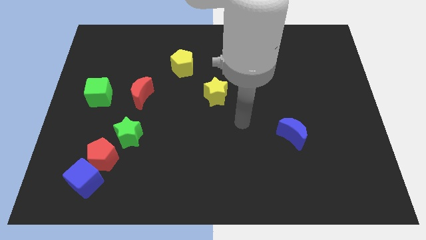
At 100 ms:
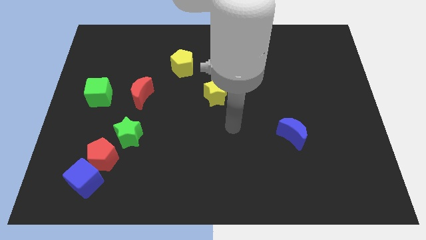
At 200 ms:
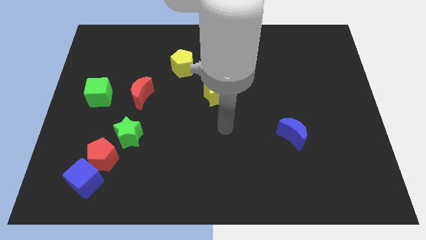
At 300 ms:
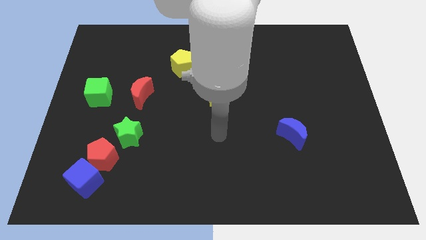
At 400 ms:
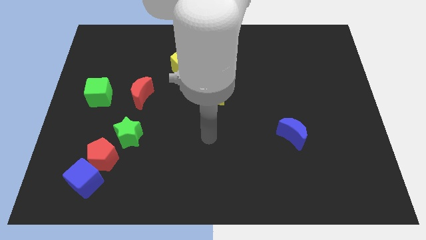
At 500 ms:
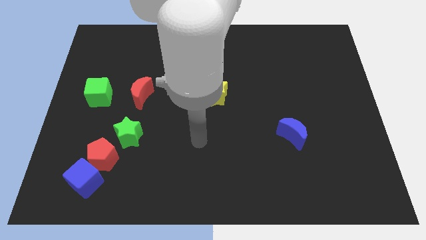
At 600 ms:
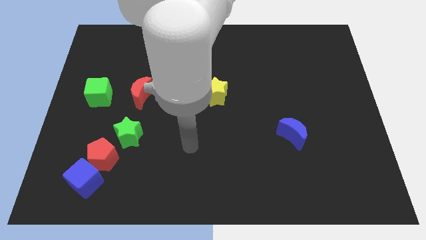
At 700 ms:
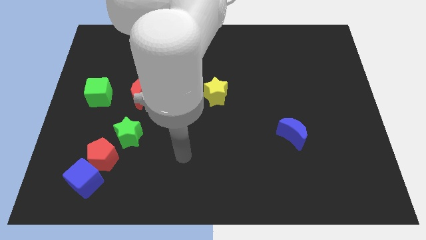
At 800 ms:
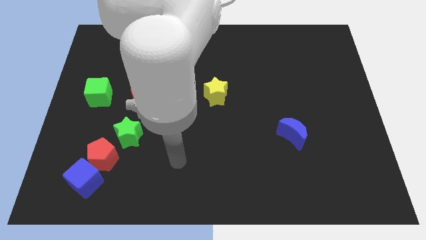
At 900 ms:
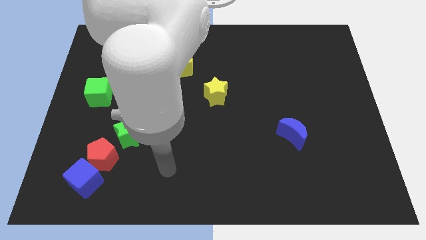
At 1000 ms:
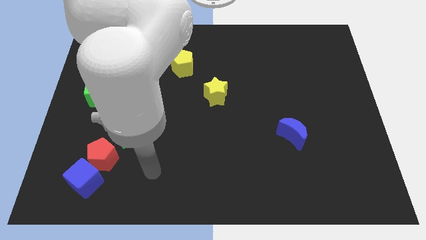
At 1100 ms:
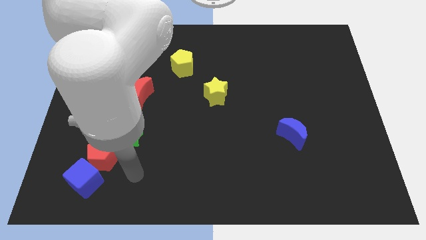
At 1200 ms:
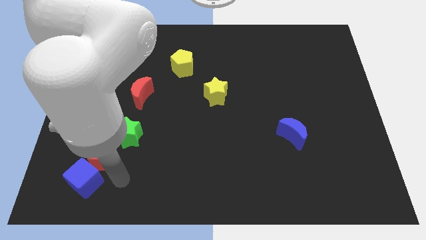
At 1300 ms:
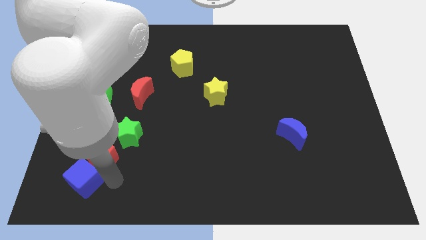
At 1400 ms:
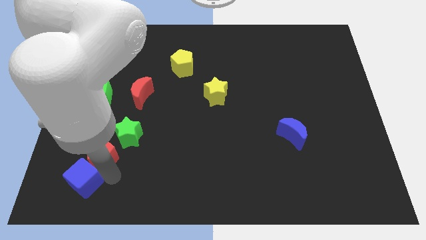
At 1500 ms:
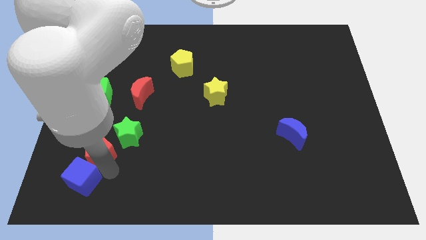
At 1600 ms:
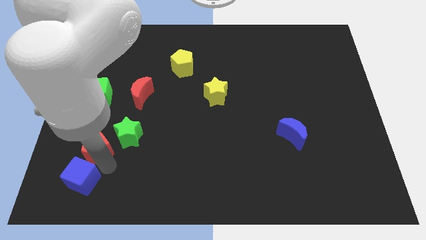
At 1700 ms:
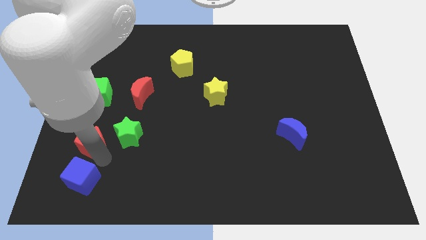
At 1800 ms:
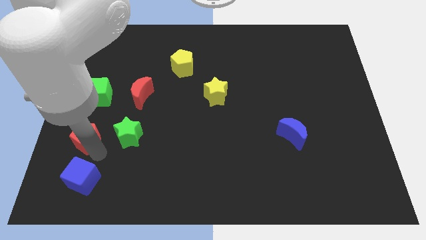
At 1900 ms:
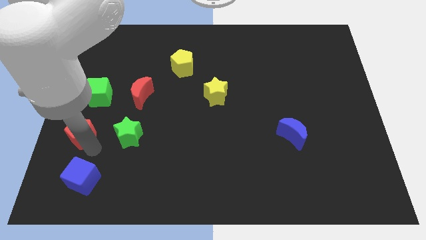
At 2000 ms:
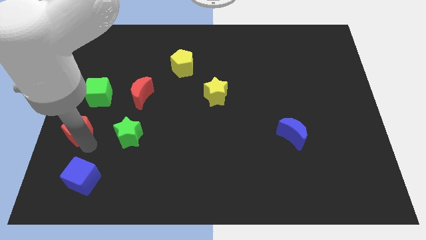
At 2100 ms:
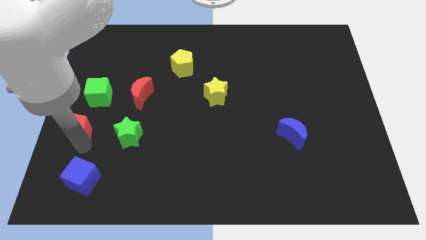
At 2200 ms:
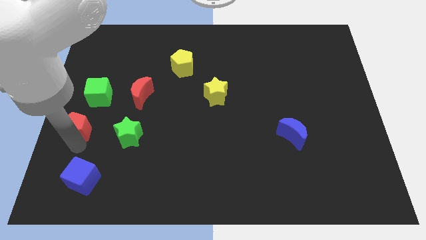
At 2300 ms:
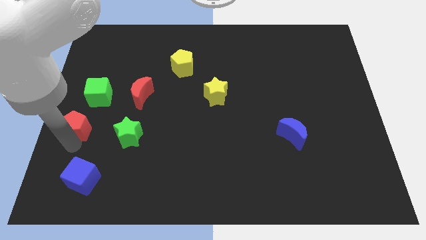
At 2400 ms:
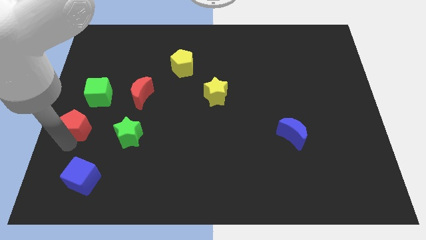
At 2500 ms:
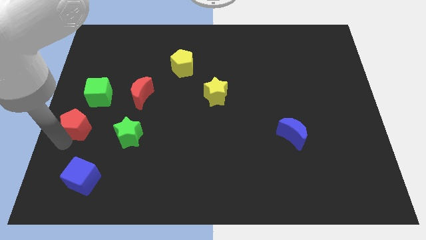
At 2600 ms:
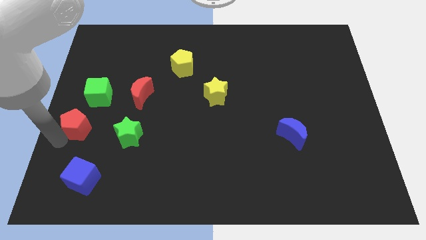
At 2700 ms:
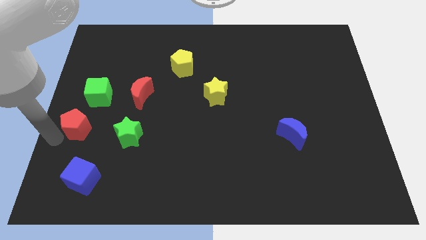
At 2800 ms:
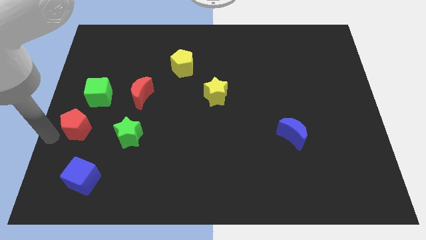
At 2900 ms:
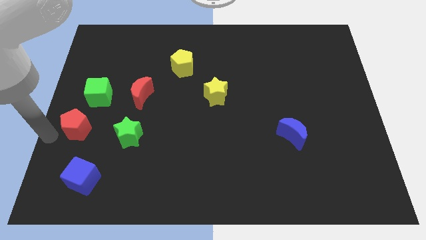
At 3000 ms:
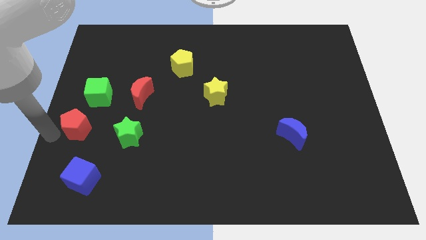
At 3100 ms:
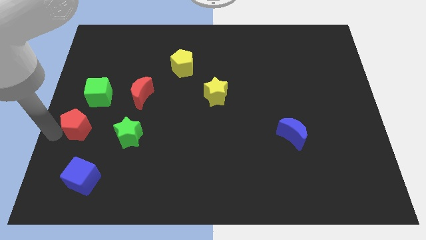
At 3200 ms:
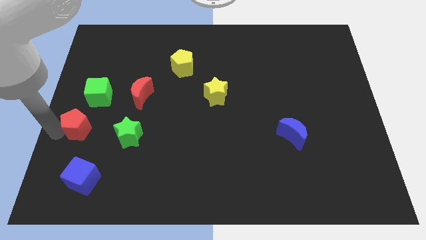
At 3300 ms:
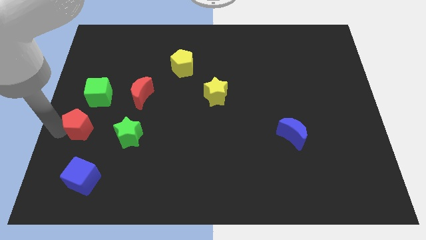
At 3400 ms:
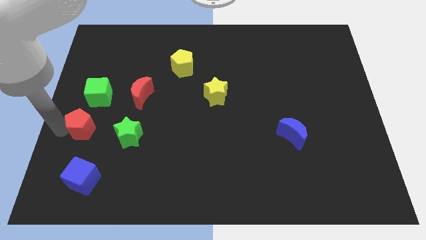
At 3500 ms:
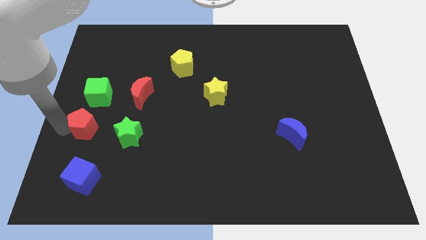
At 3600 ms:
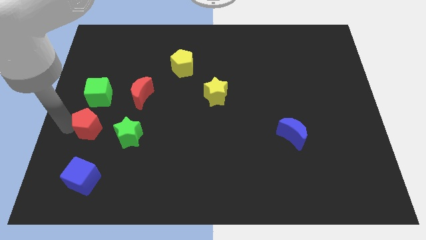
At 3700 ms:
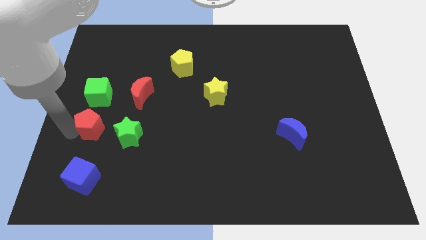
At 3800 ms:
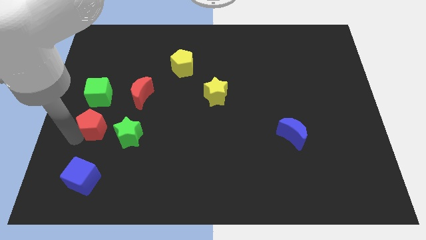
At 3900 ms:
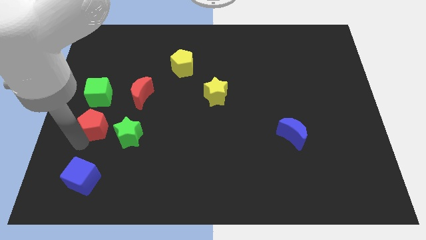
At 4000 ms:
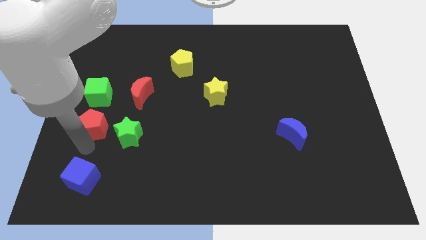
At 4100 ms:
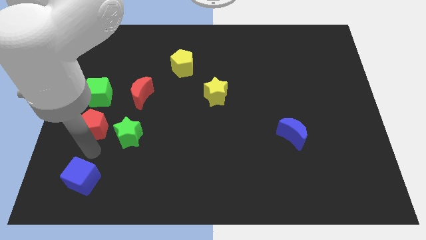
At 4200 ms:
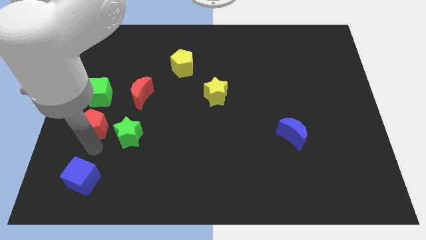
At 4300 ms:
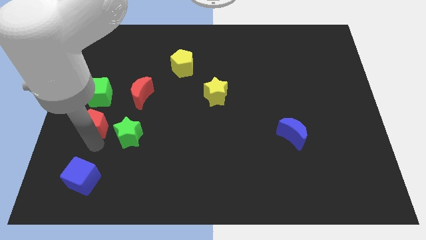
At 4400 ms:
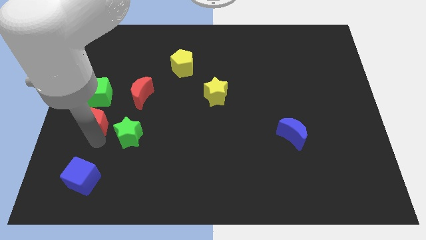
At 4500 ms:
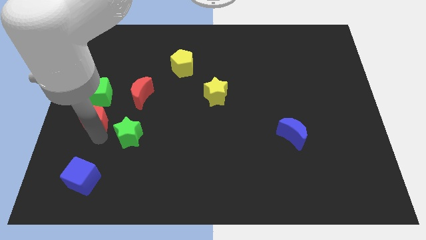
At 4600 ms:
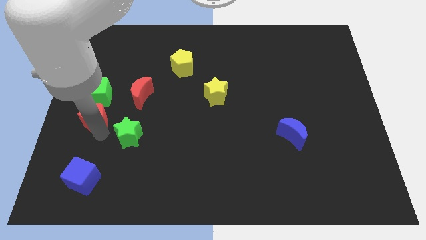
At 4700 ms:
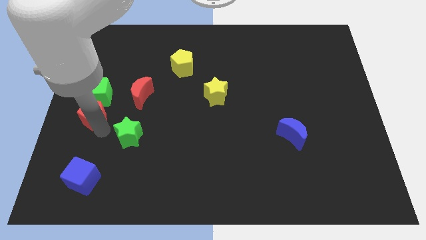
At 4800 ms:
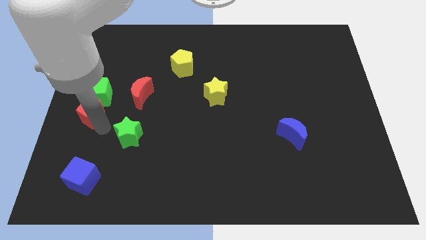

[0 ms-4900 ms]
move the red pentagon next to the green cube

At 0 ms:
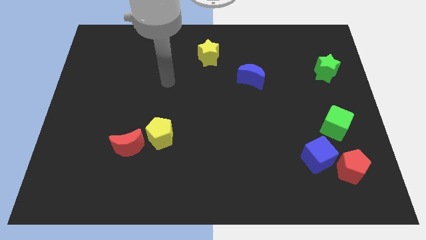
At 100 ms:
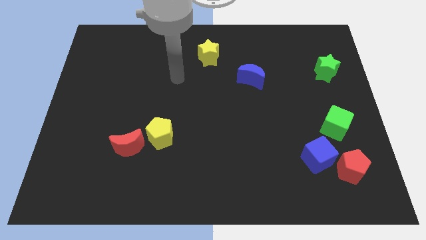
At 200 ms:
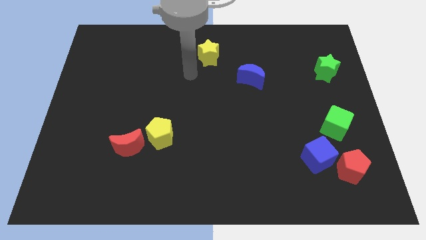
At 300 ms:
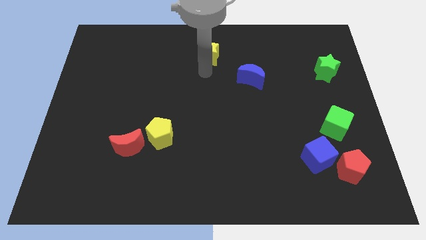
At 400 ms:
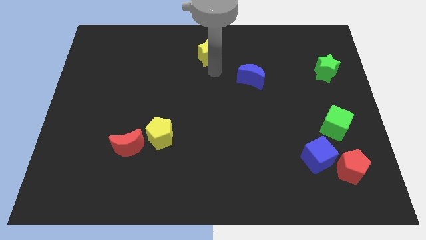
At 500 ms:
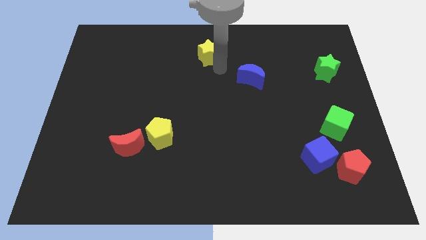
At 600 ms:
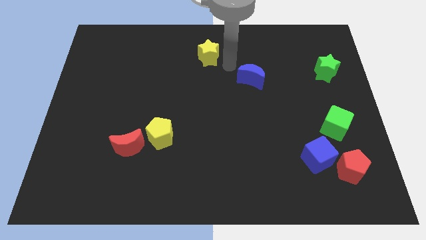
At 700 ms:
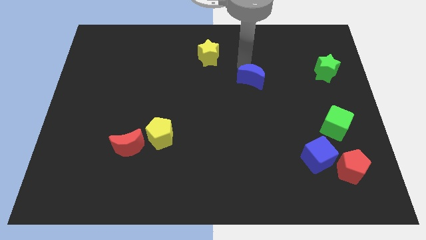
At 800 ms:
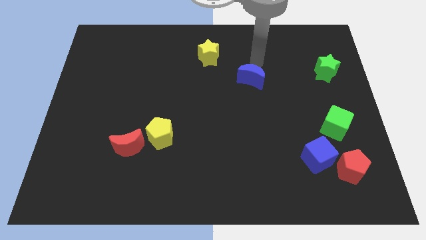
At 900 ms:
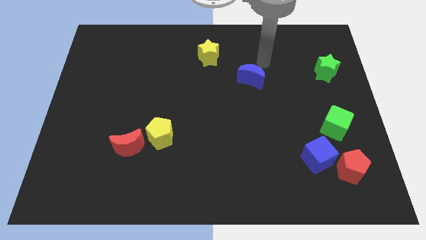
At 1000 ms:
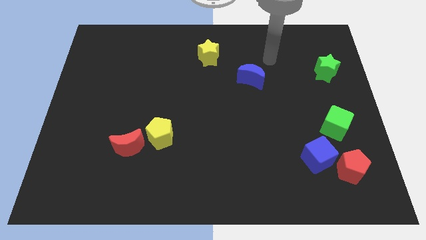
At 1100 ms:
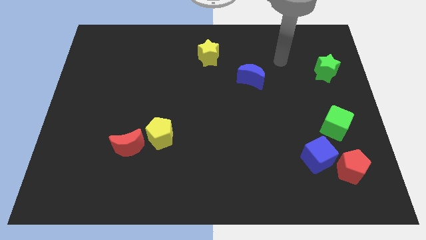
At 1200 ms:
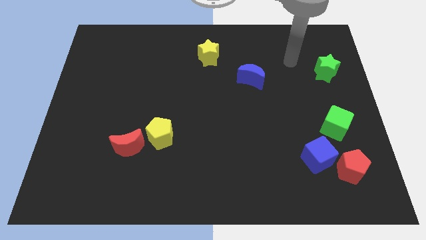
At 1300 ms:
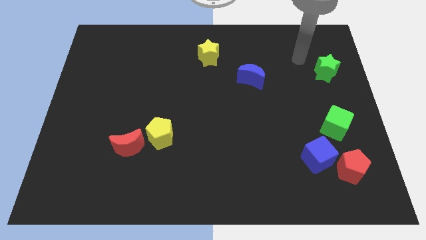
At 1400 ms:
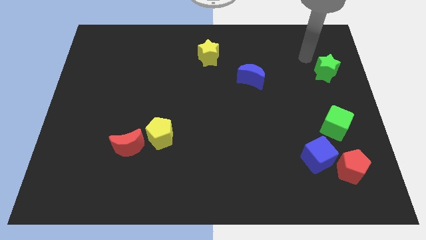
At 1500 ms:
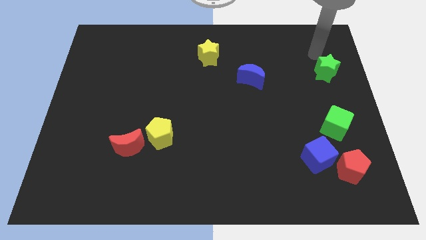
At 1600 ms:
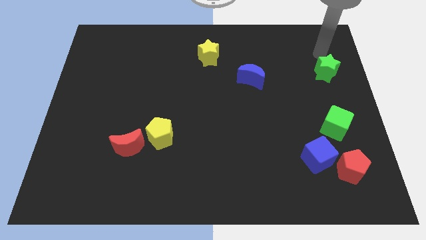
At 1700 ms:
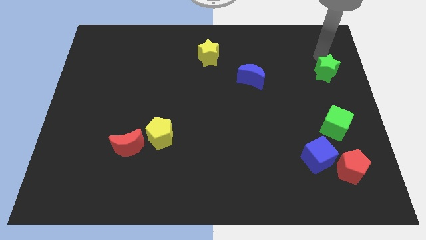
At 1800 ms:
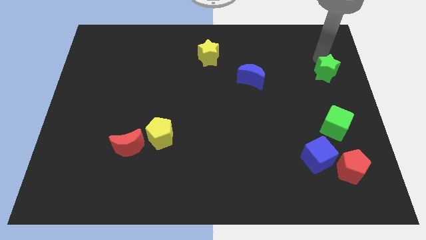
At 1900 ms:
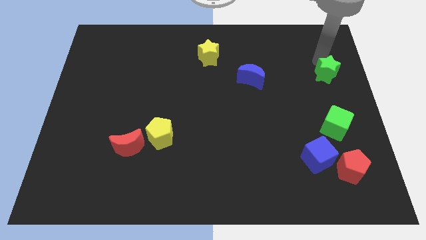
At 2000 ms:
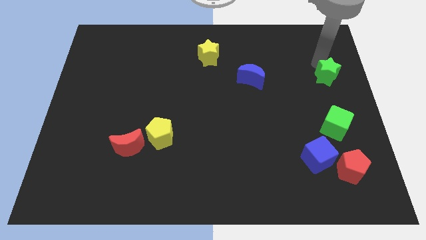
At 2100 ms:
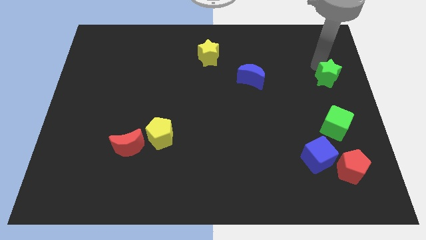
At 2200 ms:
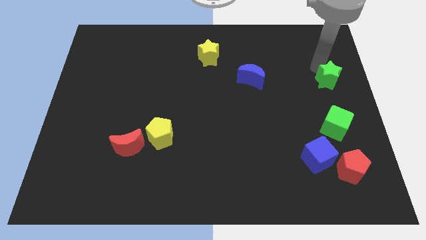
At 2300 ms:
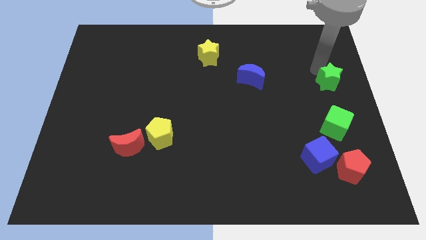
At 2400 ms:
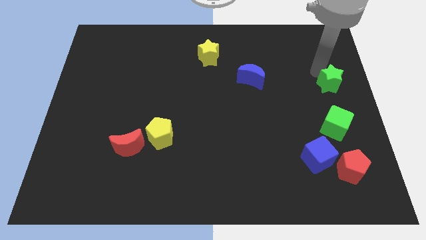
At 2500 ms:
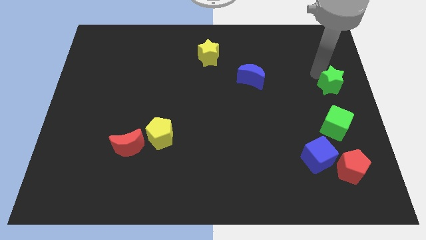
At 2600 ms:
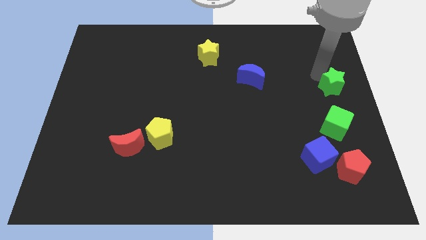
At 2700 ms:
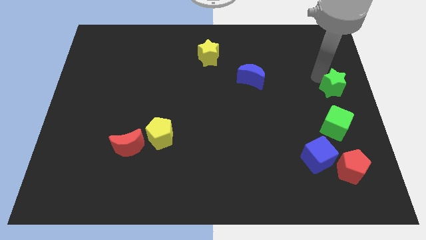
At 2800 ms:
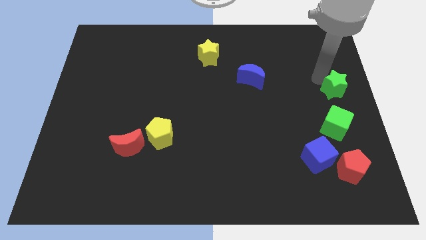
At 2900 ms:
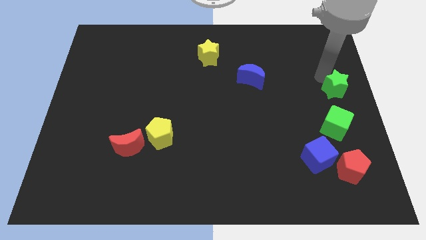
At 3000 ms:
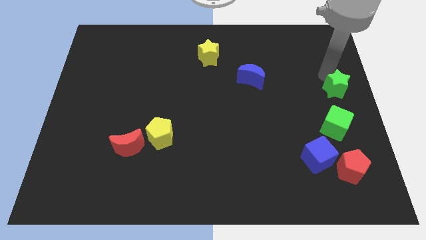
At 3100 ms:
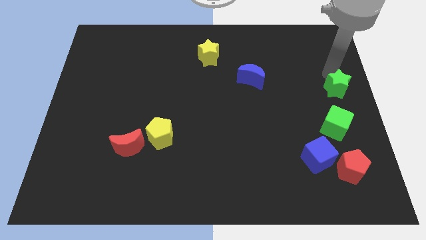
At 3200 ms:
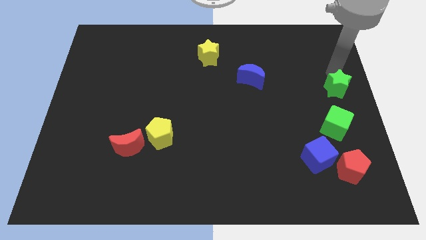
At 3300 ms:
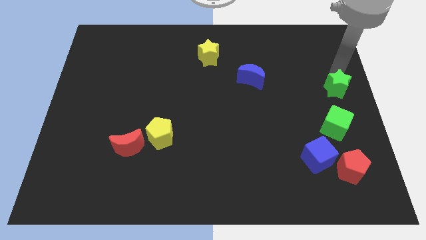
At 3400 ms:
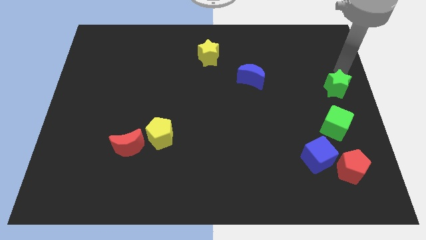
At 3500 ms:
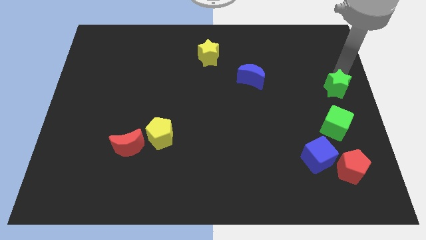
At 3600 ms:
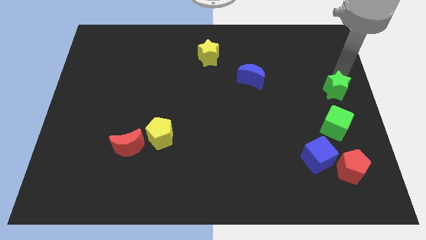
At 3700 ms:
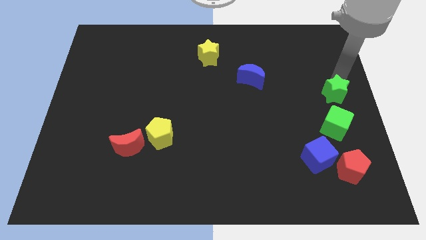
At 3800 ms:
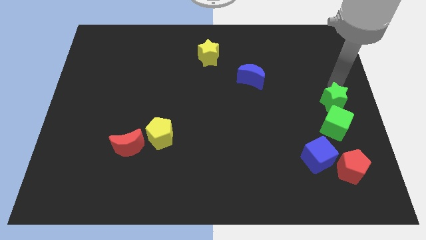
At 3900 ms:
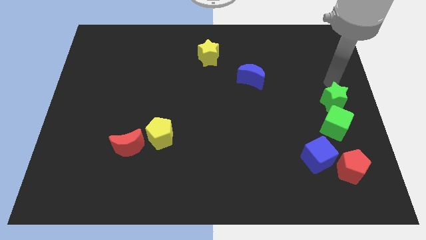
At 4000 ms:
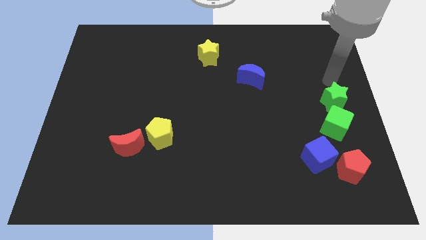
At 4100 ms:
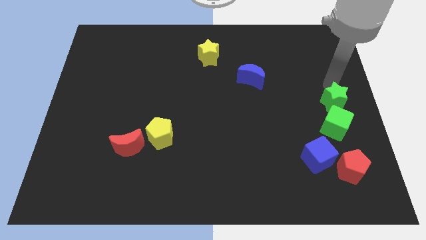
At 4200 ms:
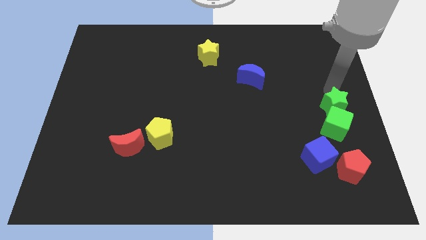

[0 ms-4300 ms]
slide the green star to the green cube
